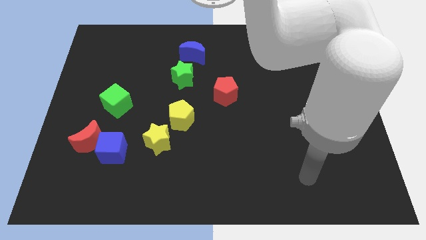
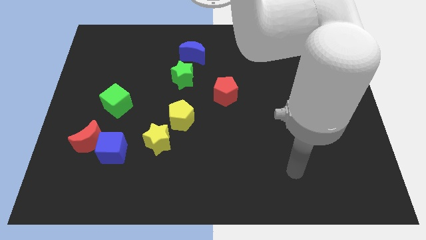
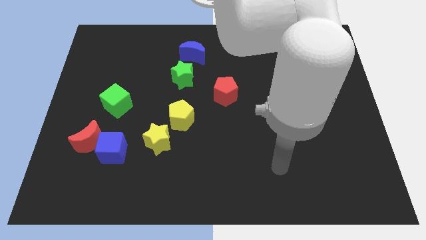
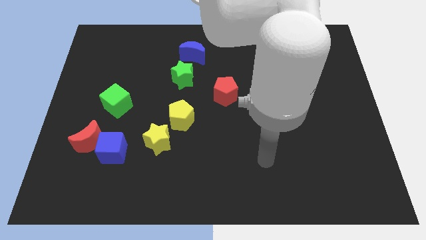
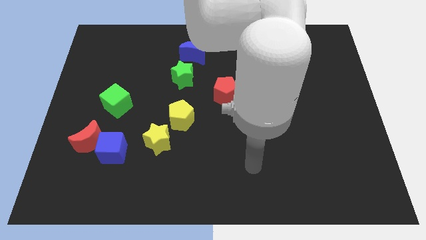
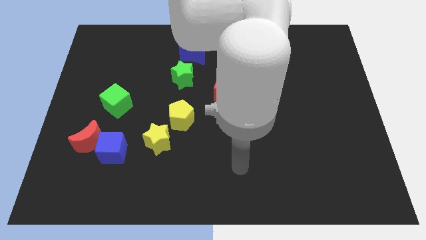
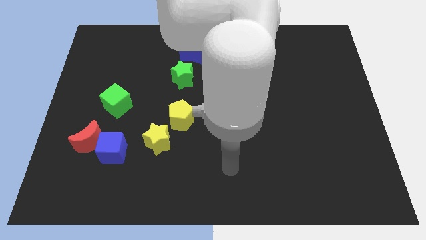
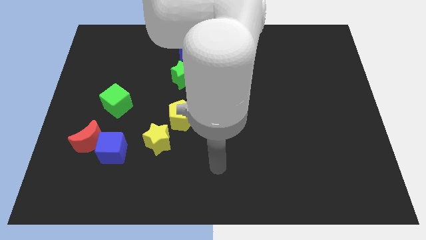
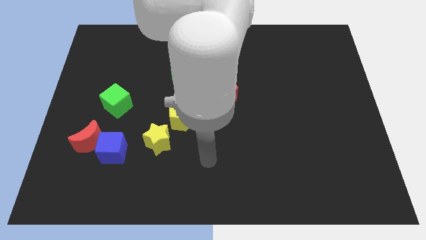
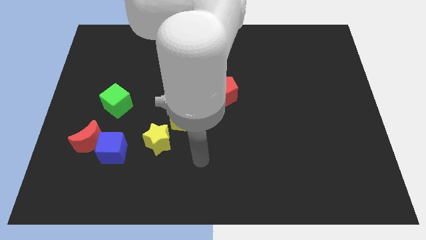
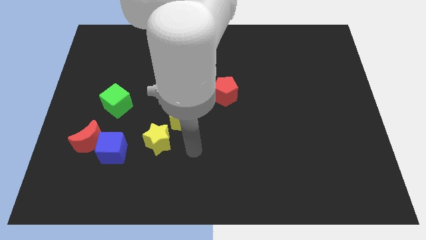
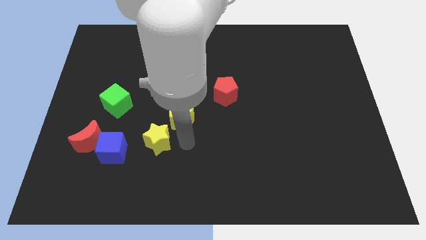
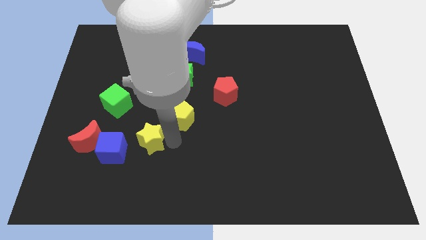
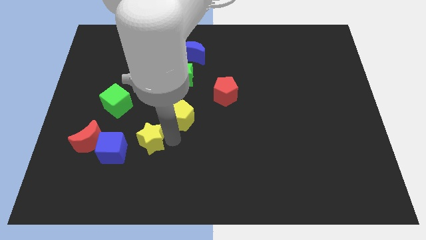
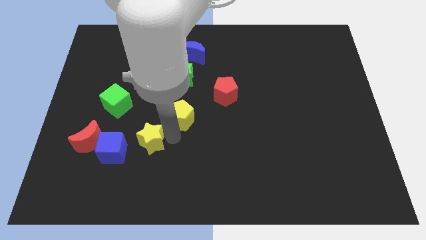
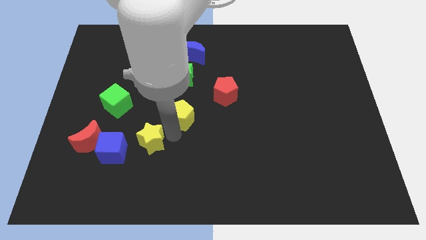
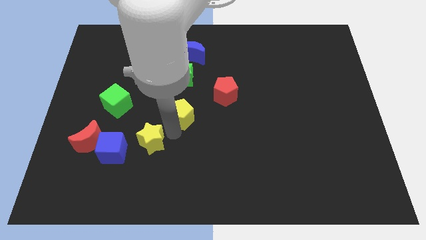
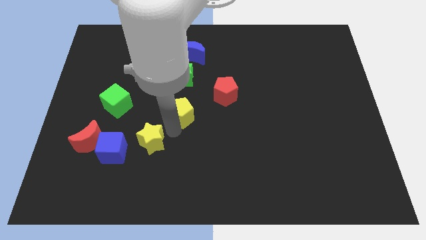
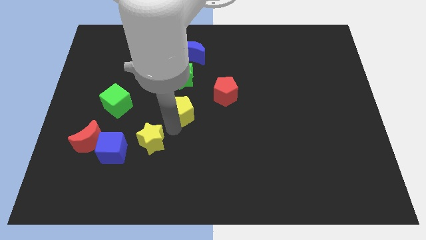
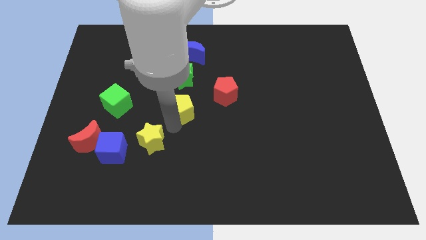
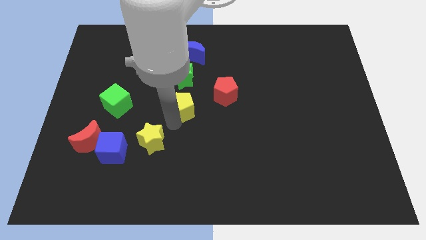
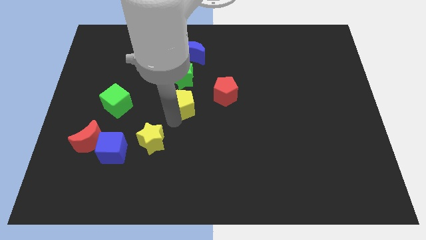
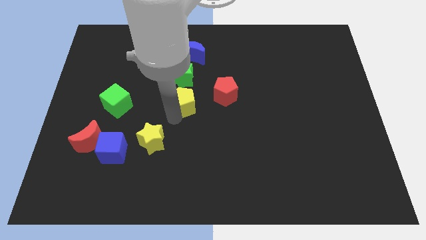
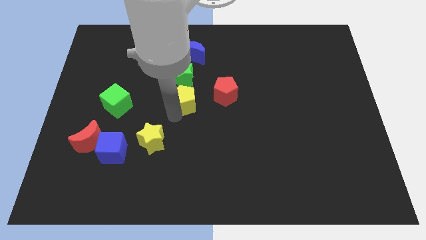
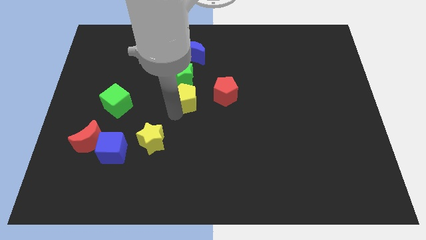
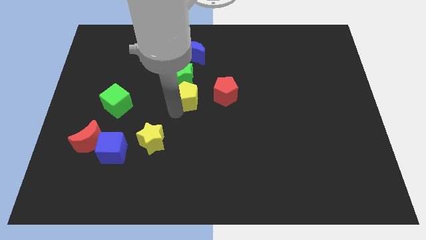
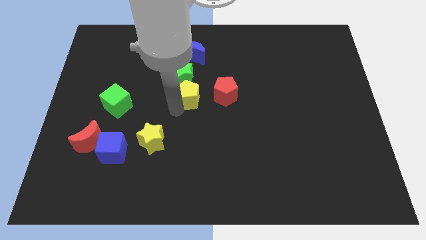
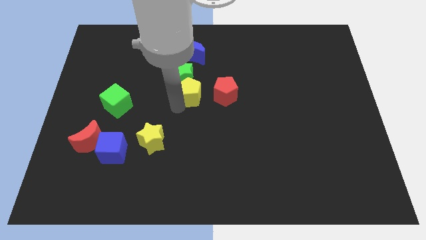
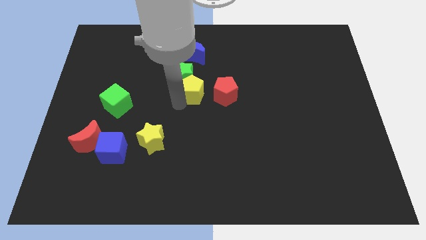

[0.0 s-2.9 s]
push the yellow pentagon a bit up and right diagonally

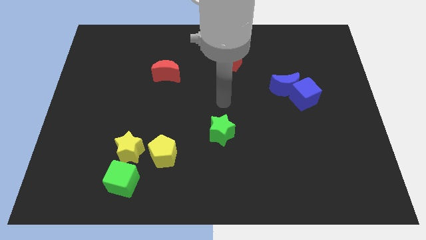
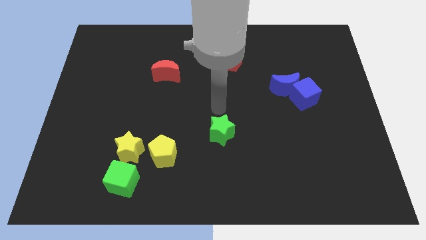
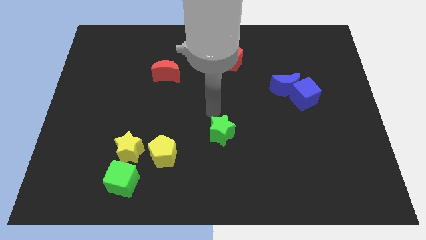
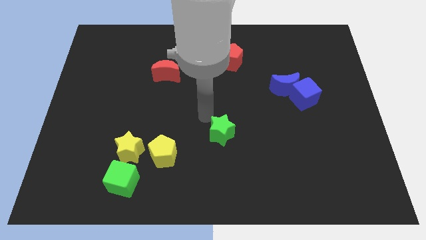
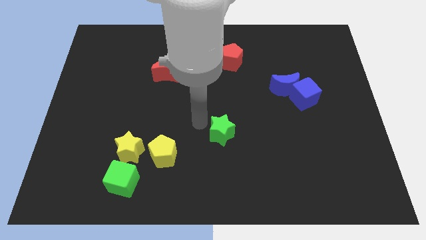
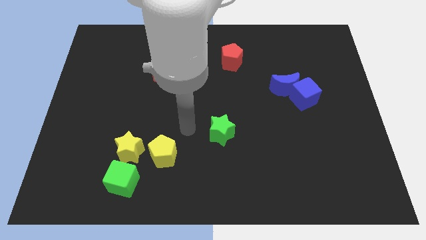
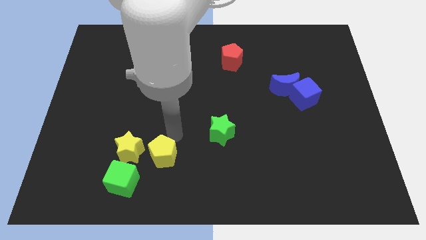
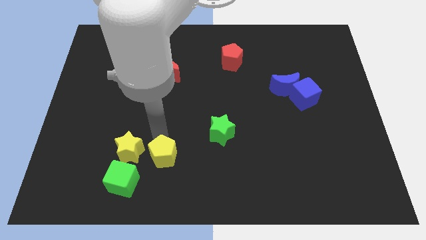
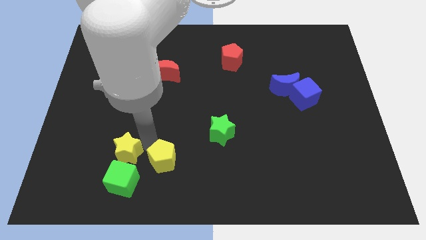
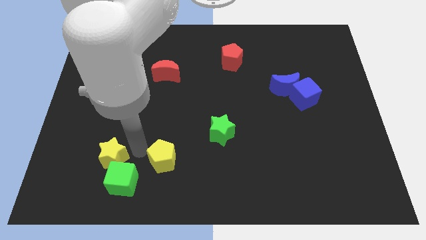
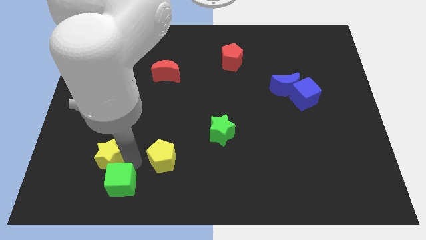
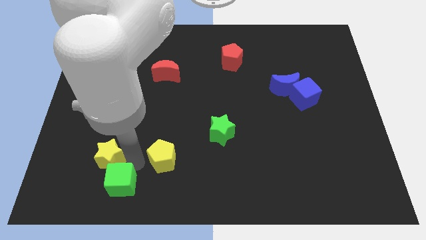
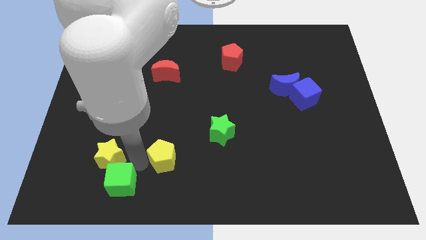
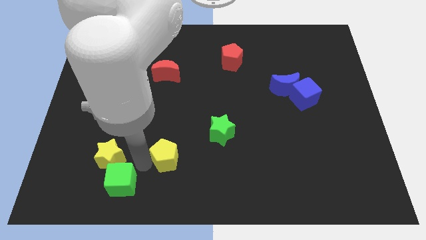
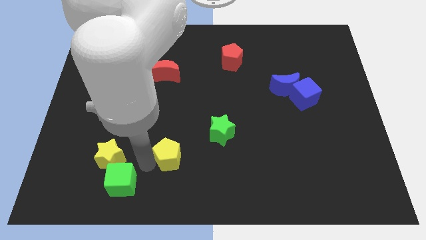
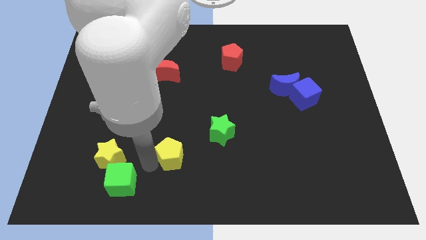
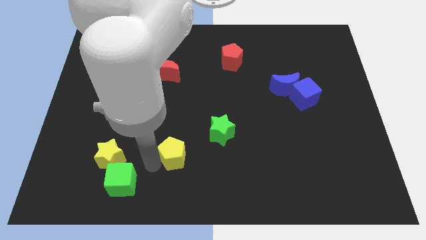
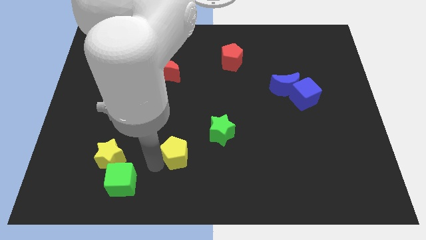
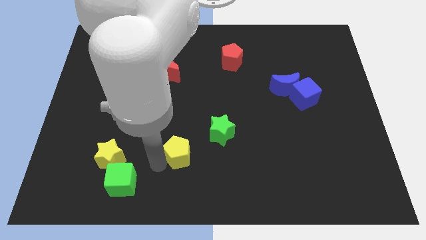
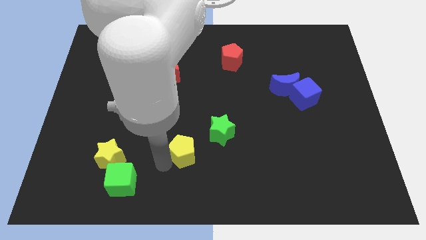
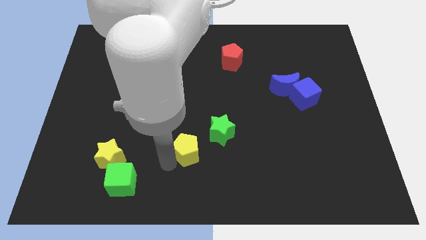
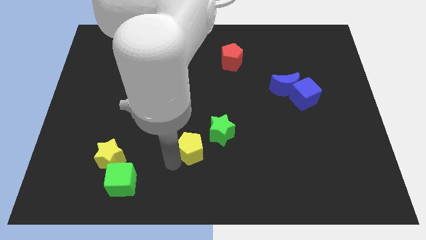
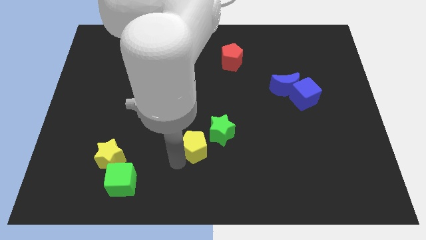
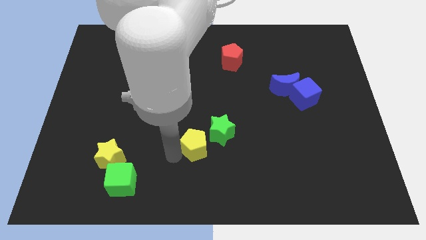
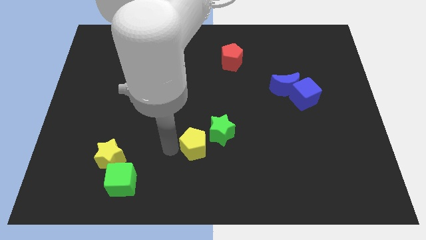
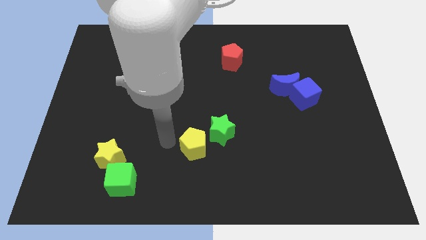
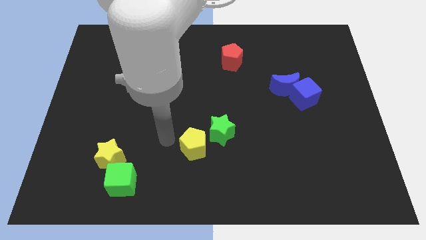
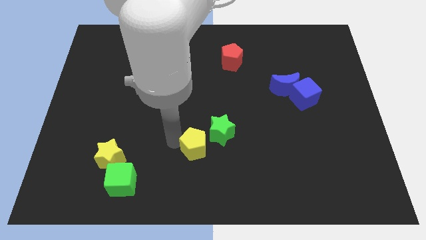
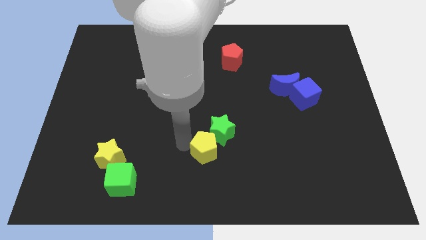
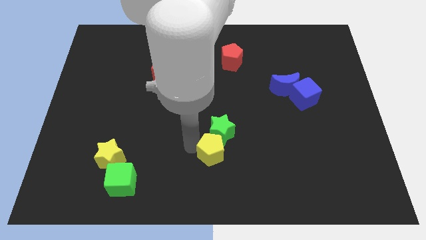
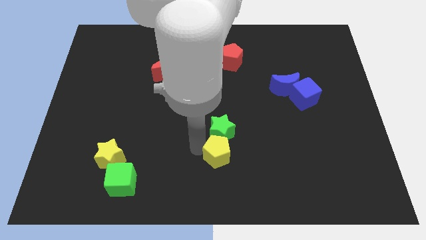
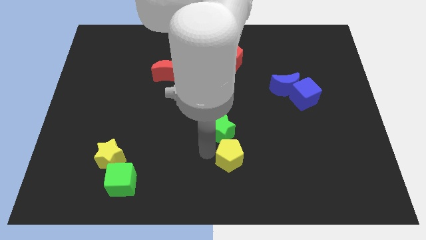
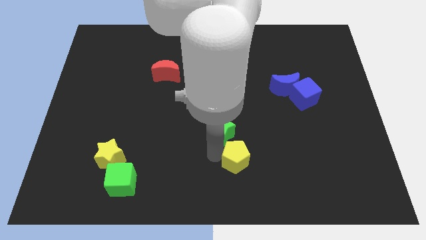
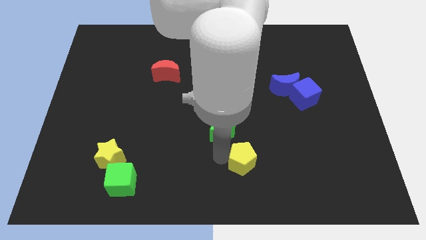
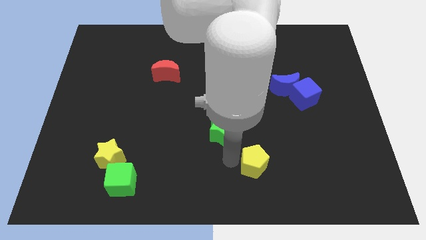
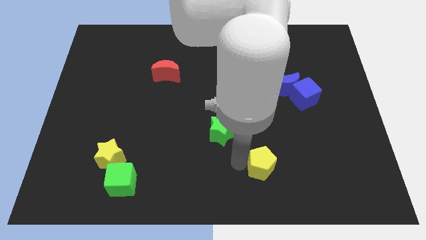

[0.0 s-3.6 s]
move the yellow pentagon right

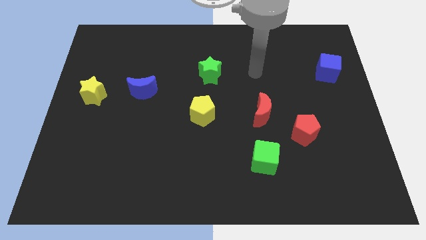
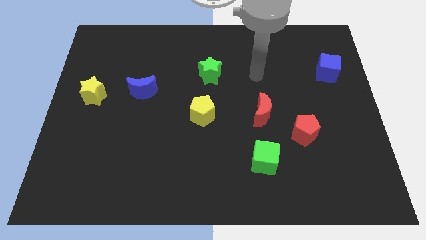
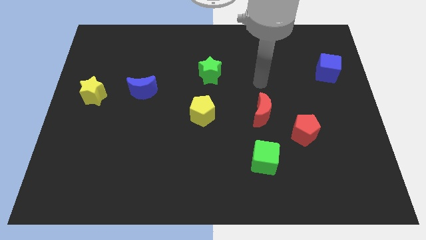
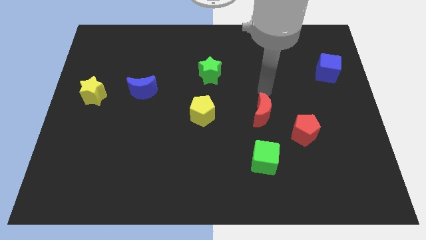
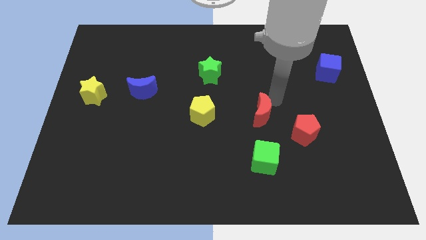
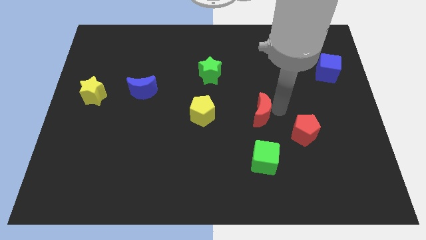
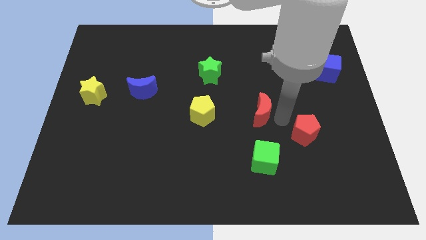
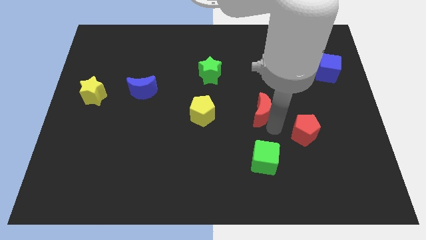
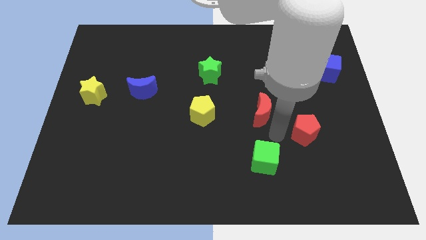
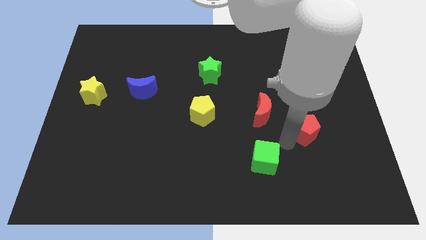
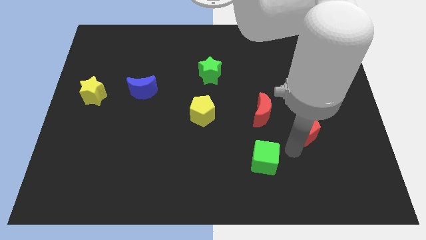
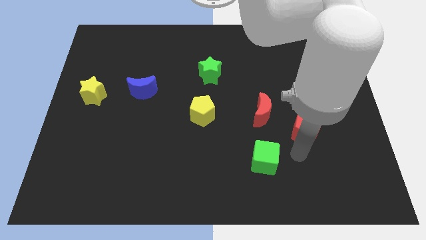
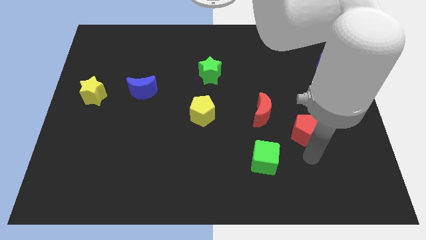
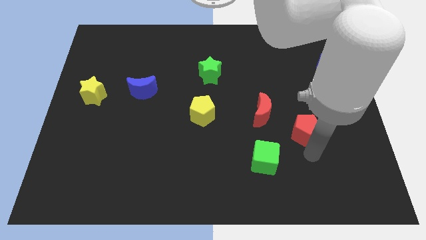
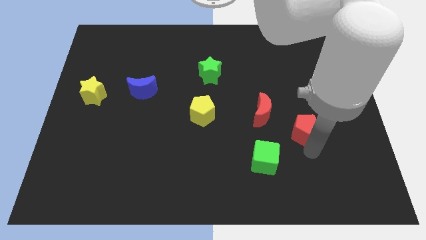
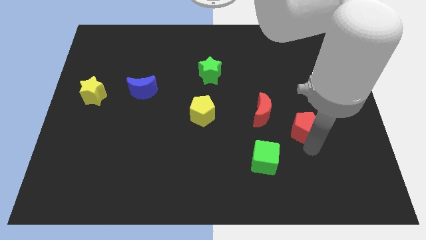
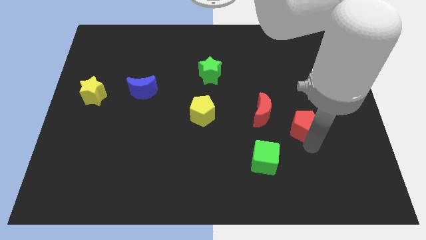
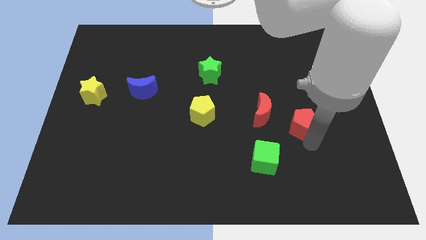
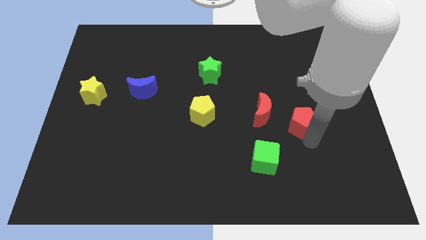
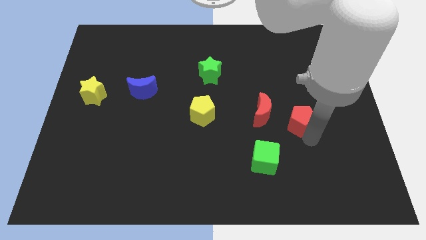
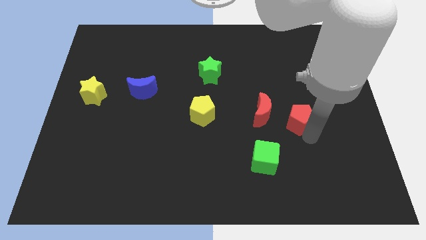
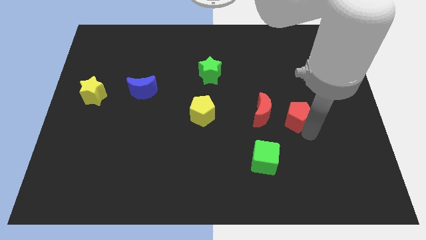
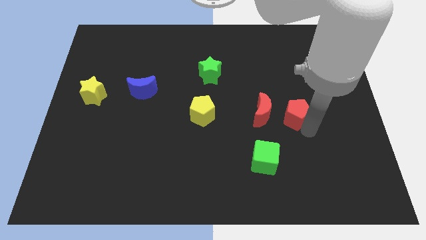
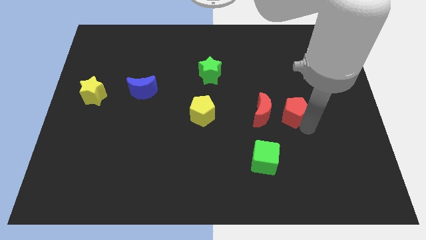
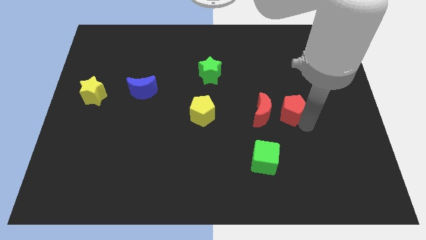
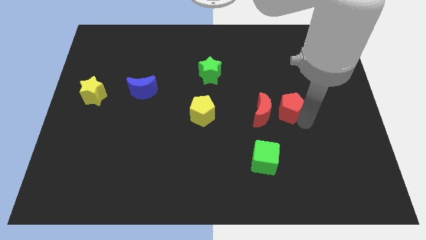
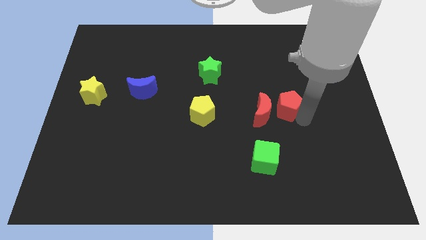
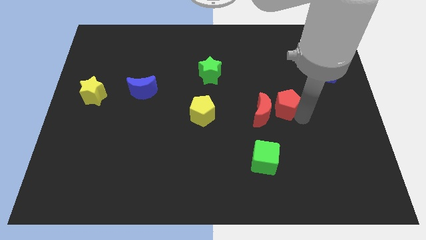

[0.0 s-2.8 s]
push the red pentagon up a little bit
